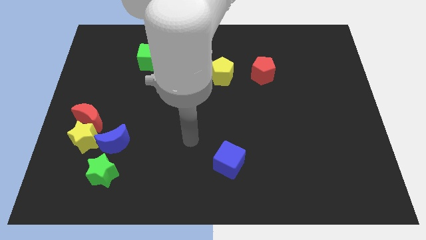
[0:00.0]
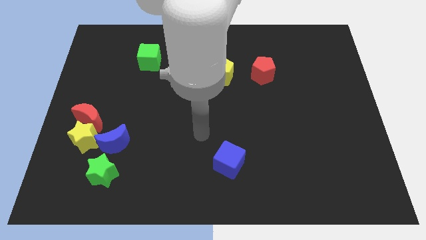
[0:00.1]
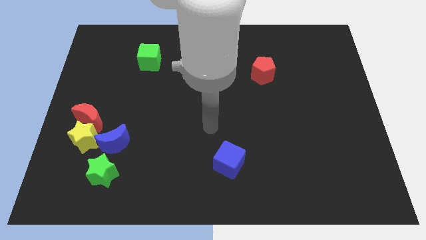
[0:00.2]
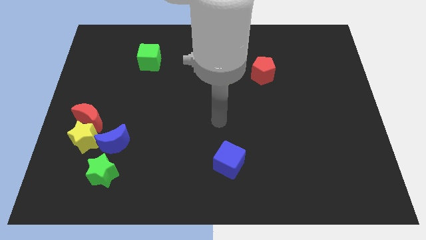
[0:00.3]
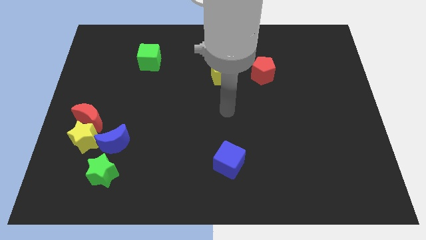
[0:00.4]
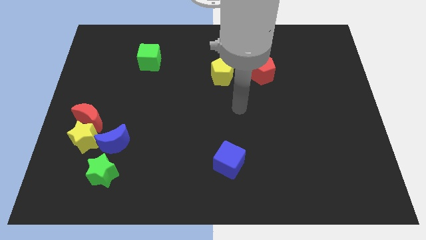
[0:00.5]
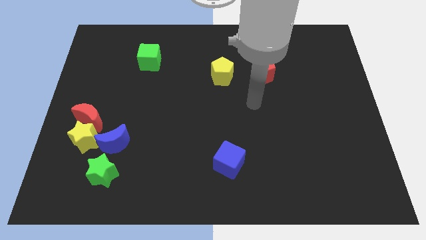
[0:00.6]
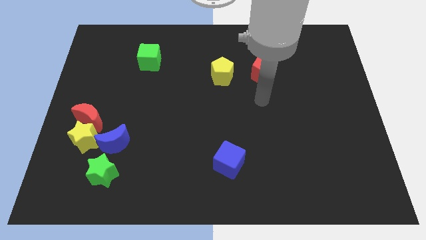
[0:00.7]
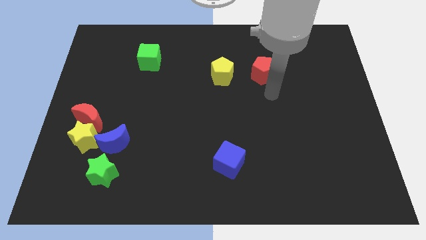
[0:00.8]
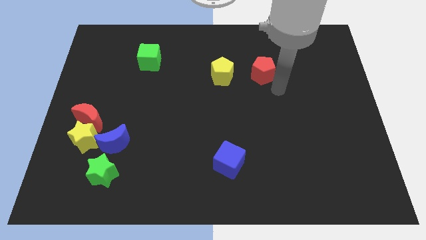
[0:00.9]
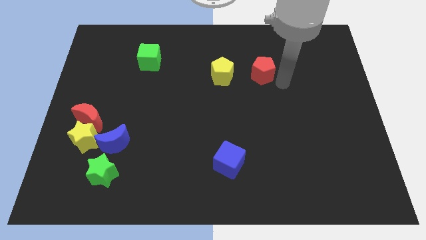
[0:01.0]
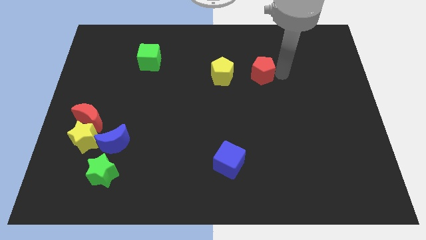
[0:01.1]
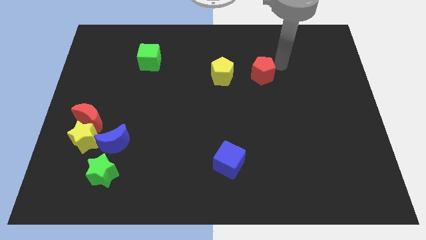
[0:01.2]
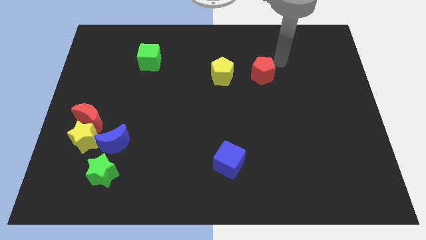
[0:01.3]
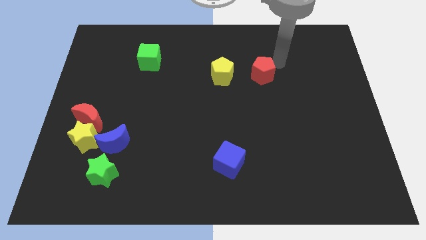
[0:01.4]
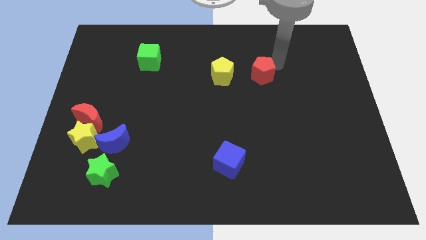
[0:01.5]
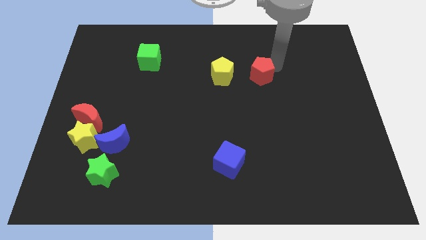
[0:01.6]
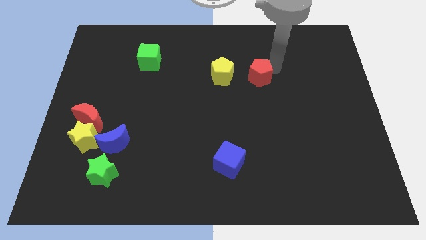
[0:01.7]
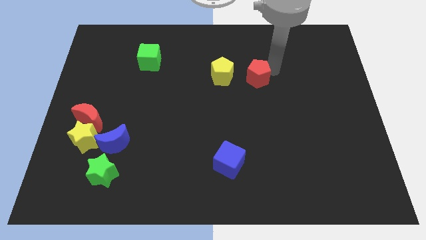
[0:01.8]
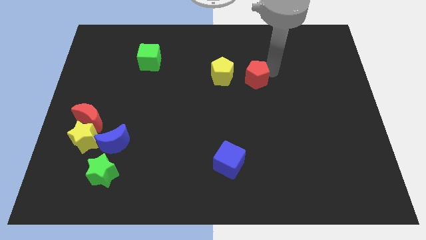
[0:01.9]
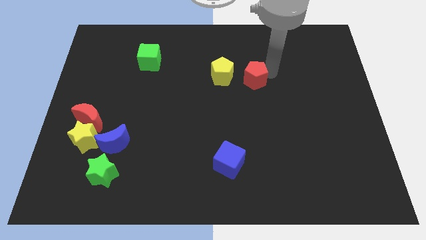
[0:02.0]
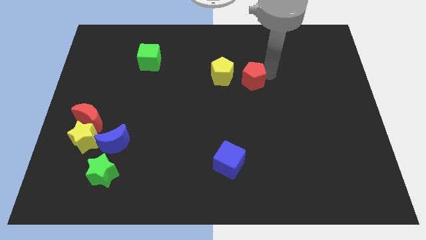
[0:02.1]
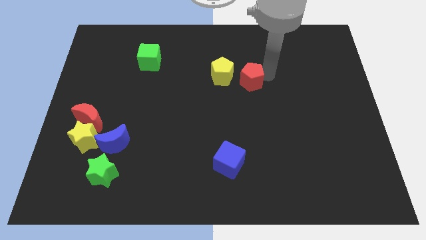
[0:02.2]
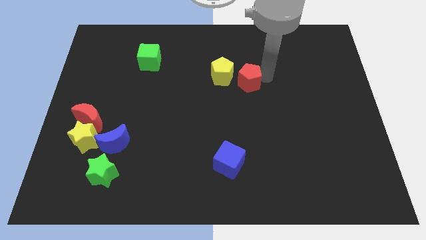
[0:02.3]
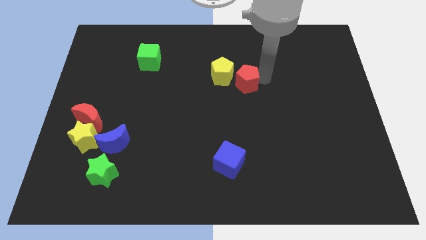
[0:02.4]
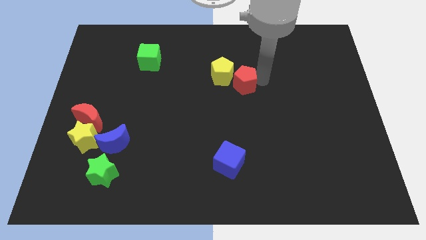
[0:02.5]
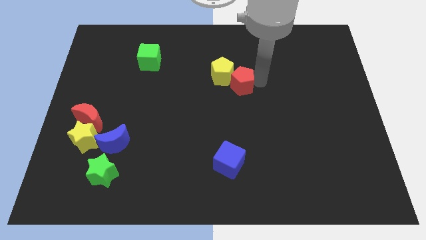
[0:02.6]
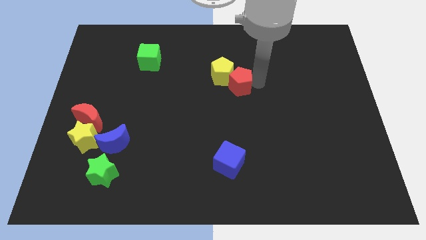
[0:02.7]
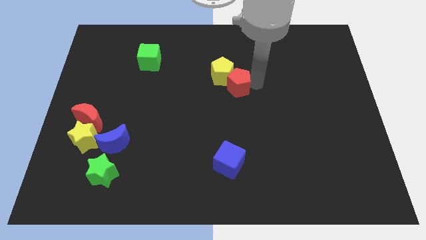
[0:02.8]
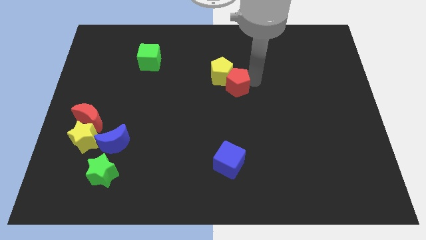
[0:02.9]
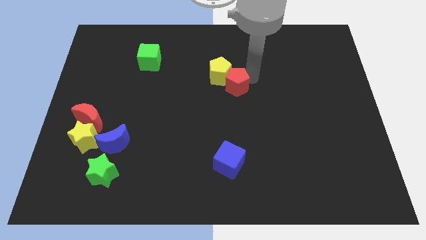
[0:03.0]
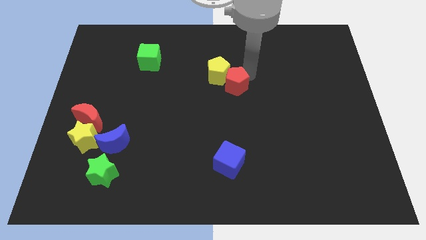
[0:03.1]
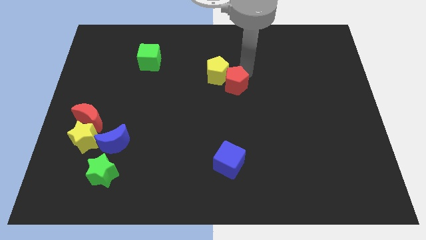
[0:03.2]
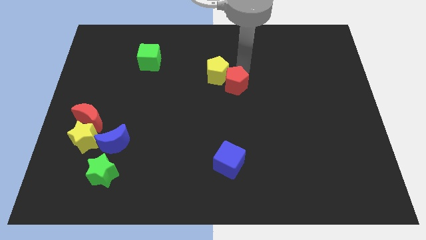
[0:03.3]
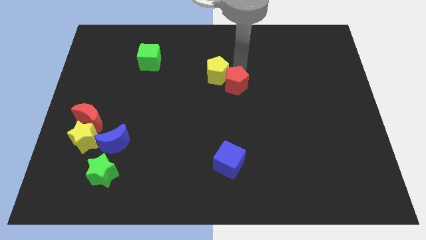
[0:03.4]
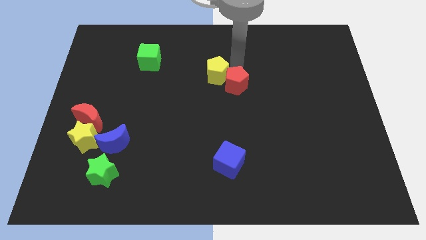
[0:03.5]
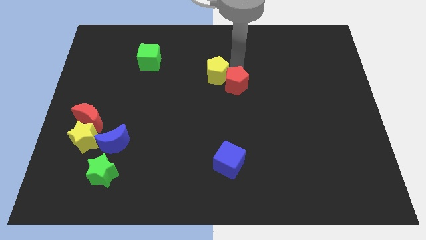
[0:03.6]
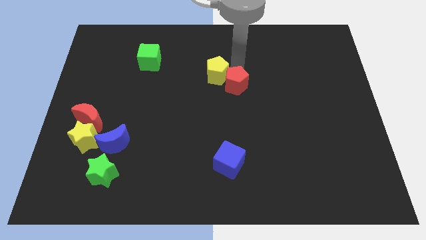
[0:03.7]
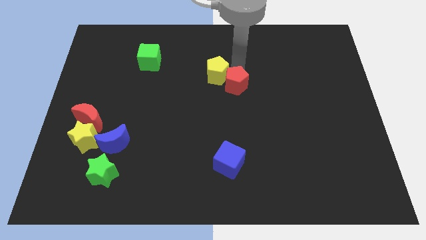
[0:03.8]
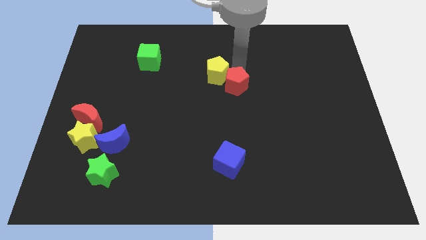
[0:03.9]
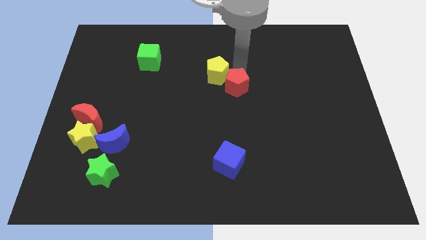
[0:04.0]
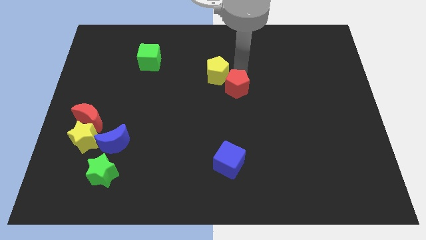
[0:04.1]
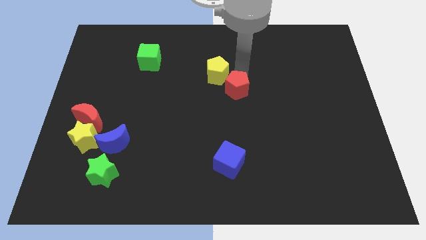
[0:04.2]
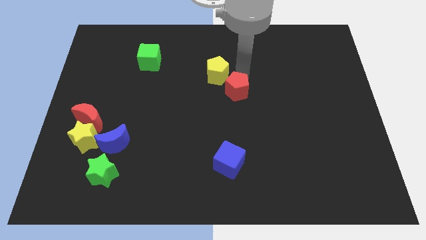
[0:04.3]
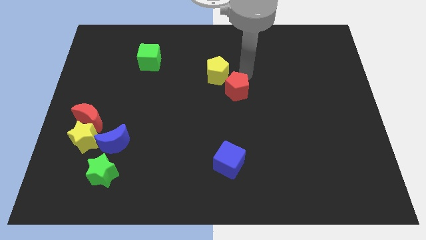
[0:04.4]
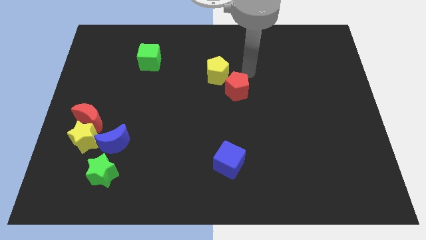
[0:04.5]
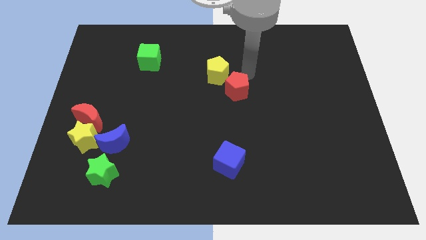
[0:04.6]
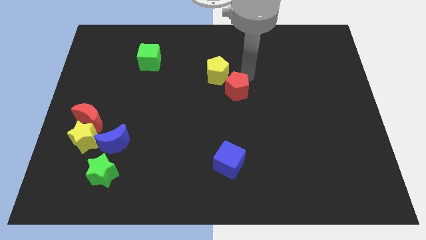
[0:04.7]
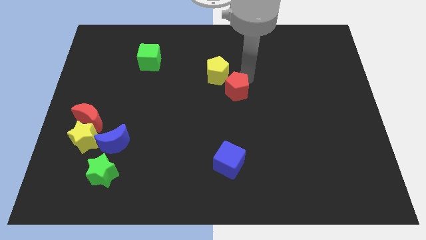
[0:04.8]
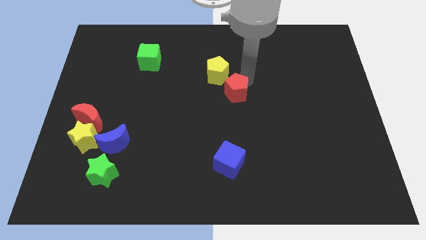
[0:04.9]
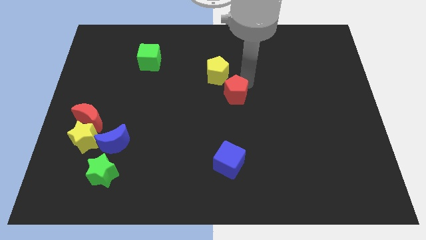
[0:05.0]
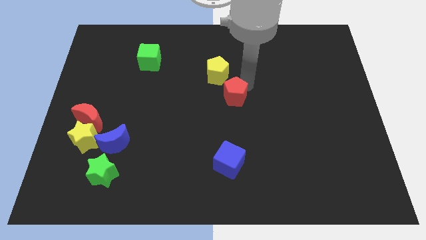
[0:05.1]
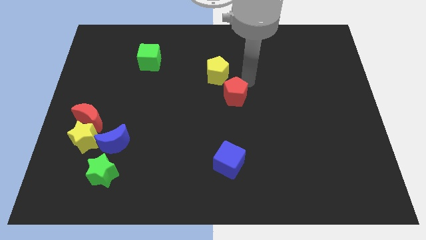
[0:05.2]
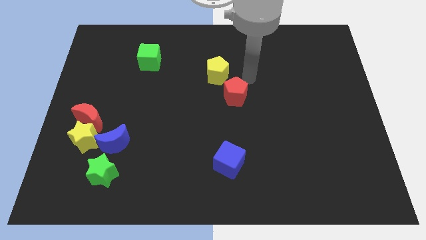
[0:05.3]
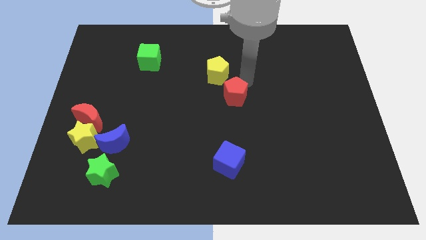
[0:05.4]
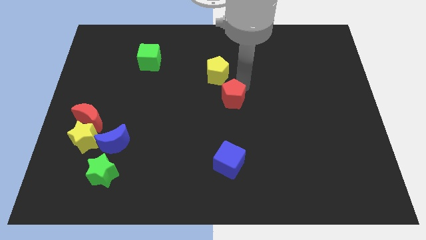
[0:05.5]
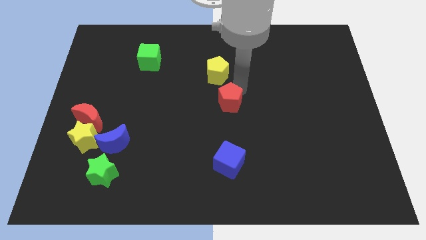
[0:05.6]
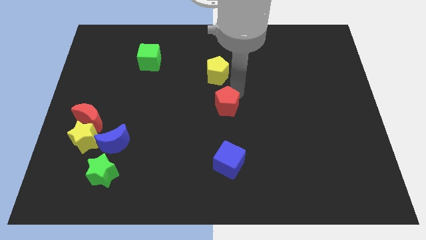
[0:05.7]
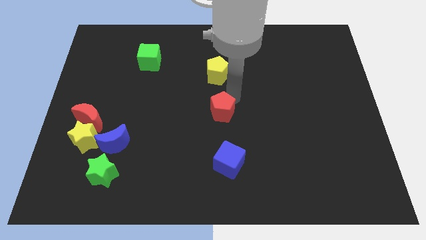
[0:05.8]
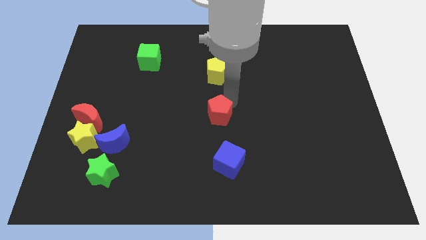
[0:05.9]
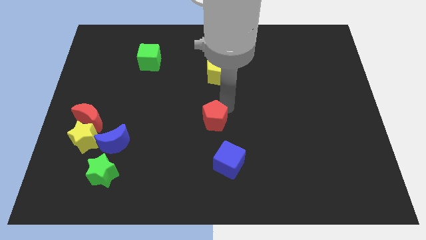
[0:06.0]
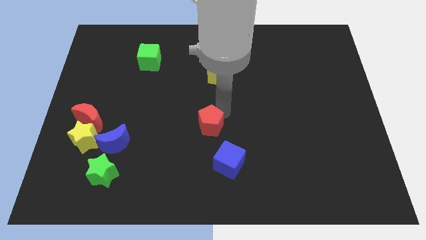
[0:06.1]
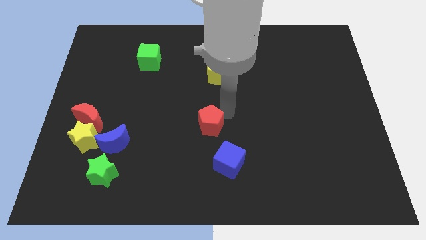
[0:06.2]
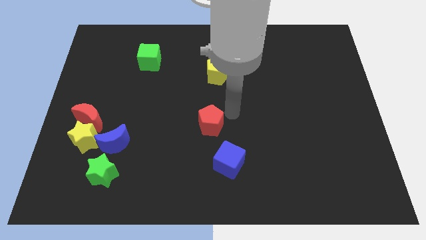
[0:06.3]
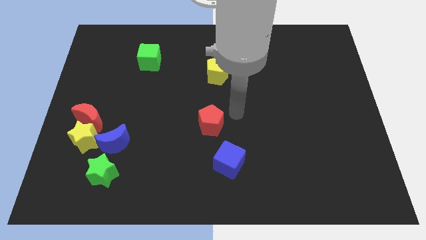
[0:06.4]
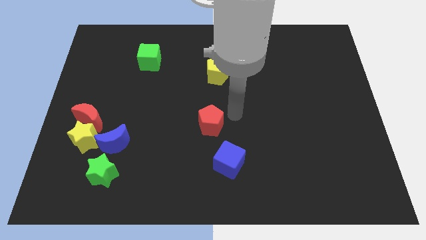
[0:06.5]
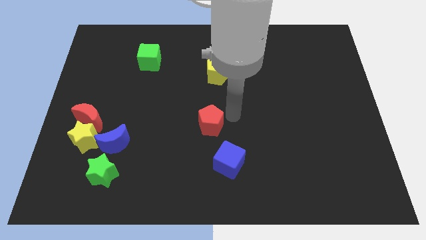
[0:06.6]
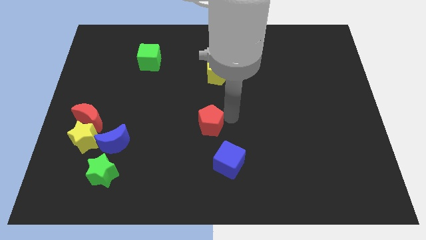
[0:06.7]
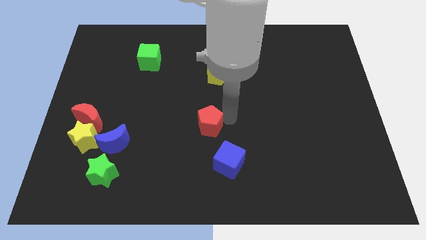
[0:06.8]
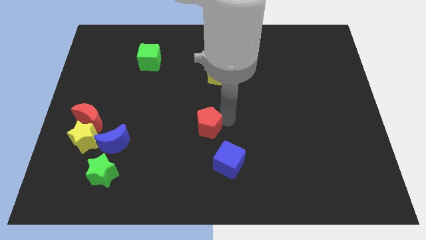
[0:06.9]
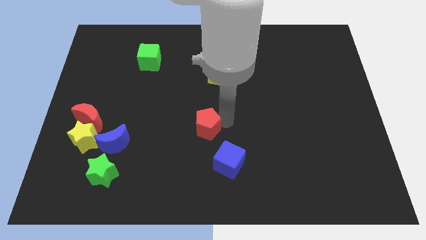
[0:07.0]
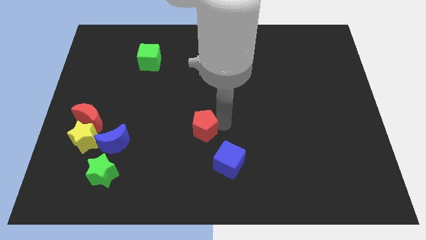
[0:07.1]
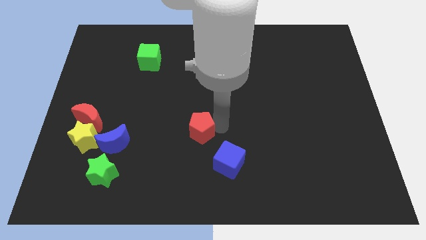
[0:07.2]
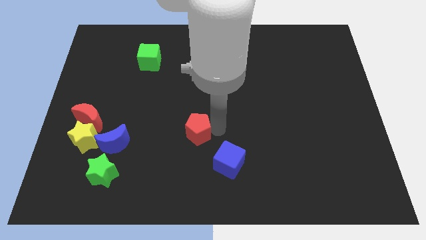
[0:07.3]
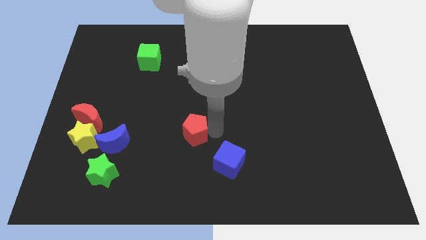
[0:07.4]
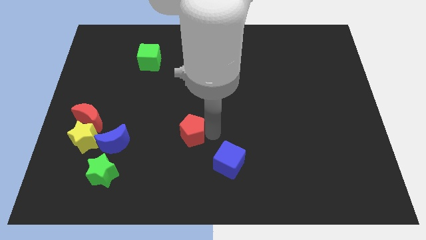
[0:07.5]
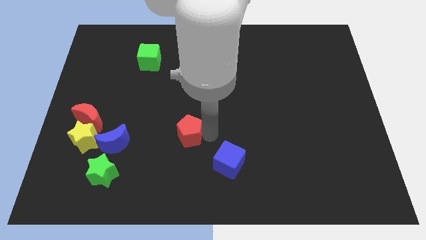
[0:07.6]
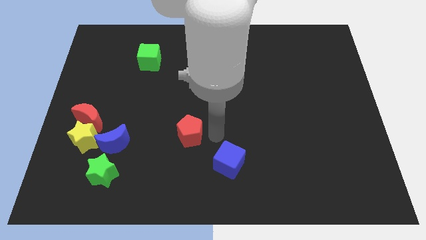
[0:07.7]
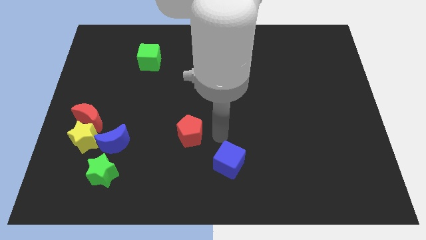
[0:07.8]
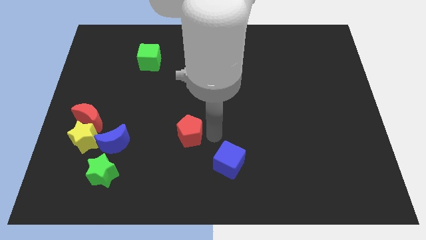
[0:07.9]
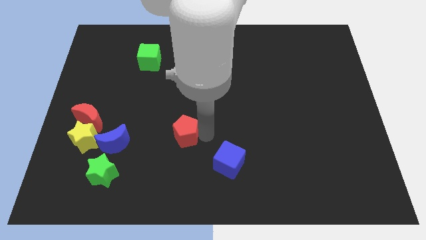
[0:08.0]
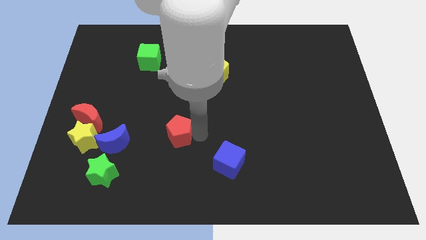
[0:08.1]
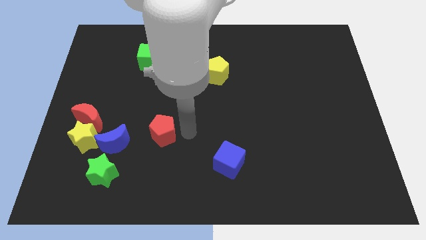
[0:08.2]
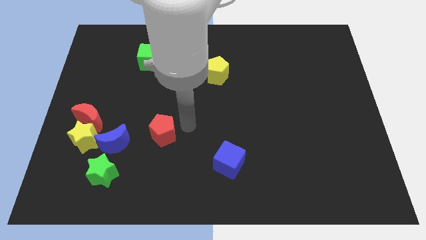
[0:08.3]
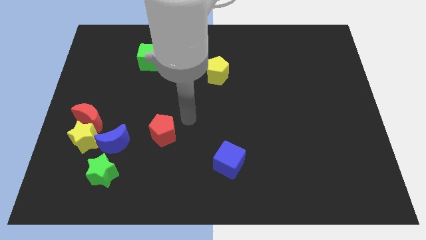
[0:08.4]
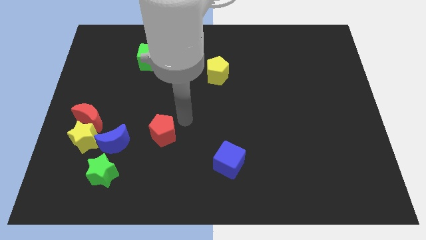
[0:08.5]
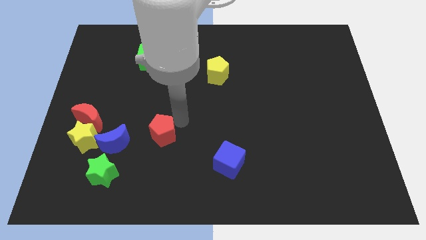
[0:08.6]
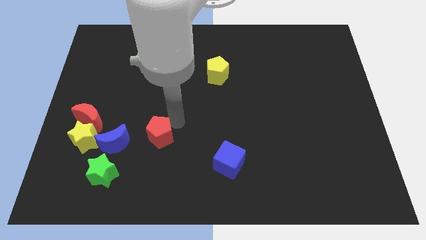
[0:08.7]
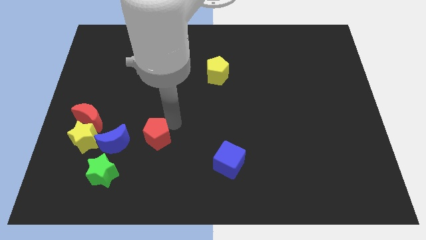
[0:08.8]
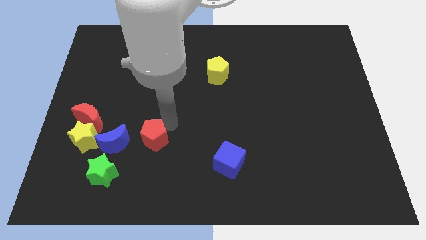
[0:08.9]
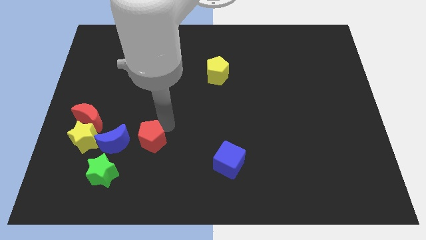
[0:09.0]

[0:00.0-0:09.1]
push the red pentagon to the top right side of the green star
